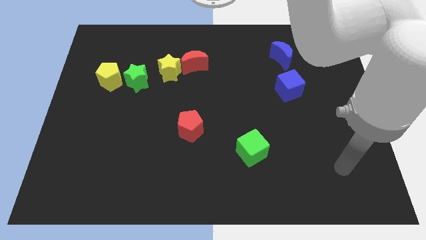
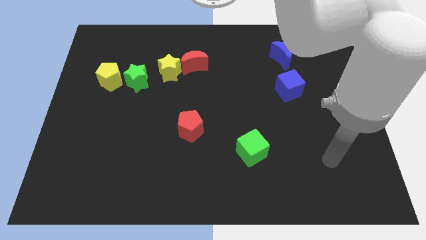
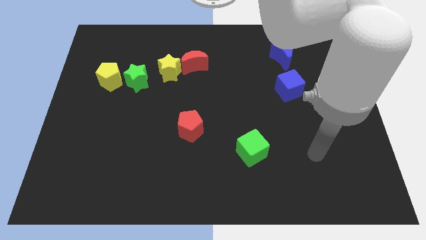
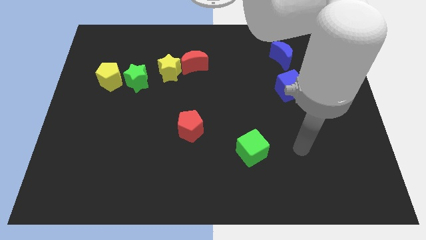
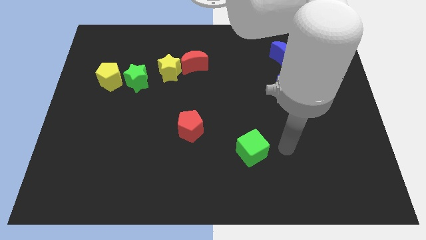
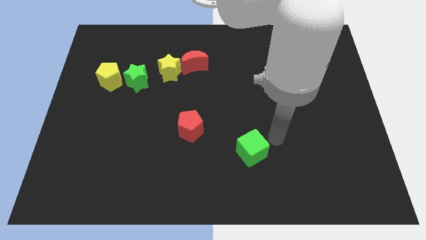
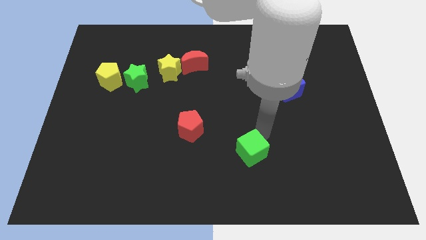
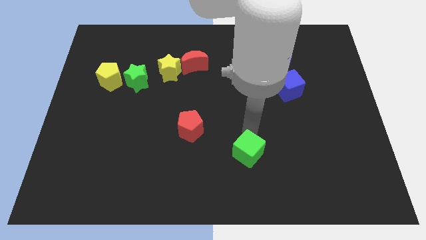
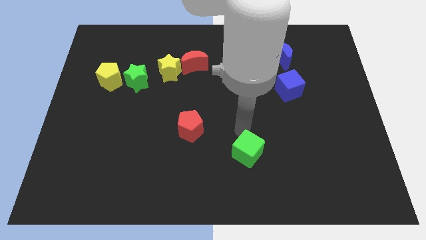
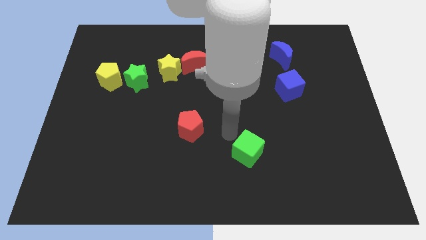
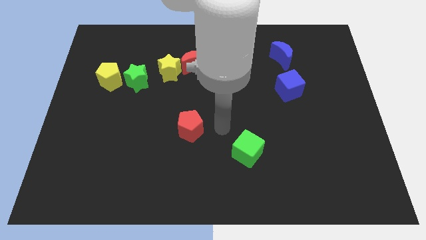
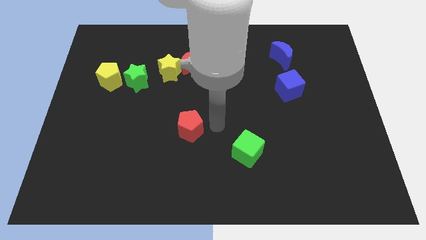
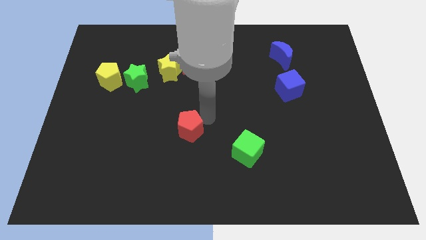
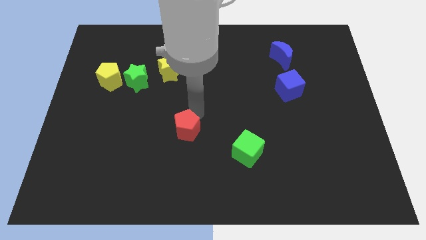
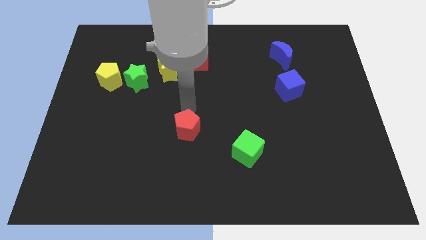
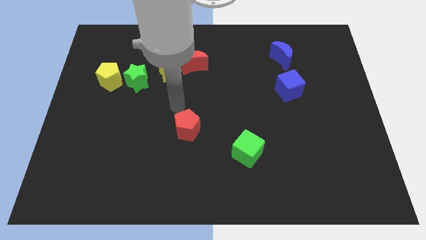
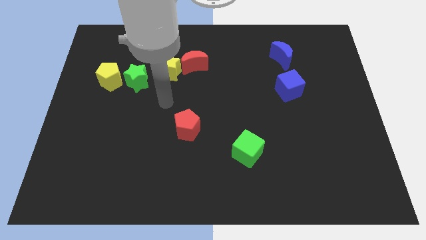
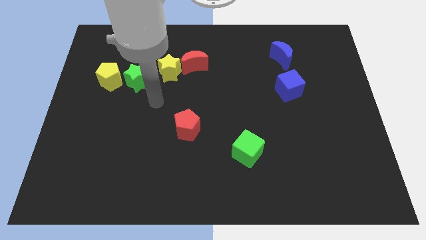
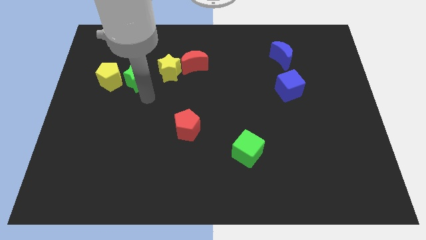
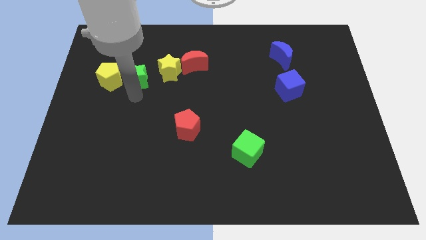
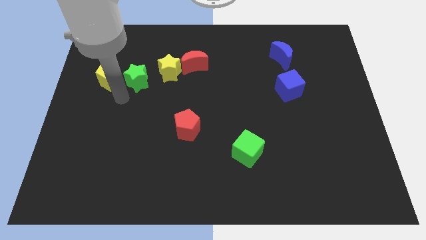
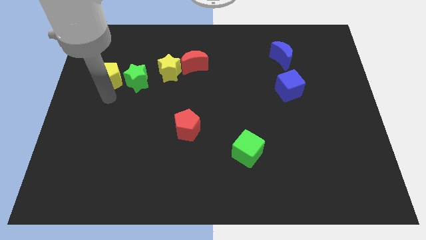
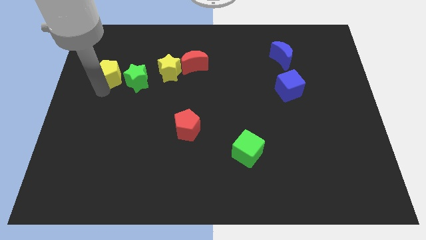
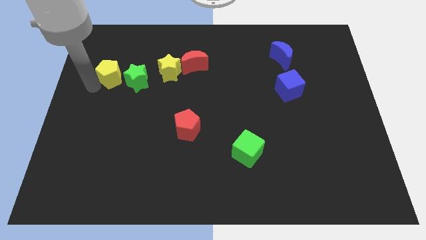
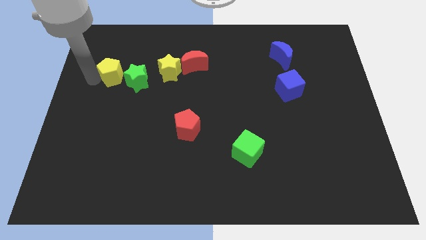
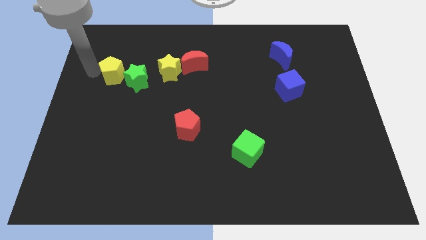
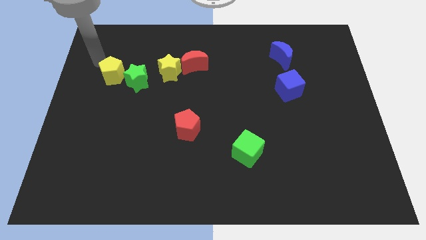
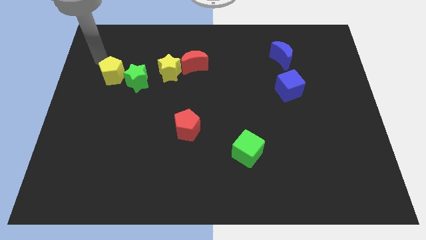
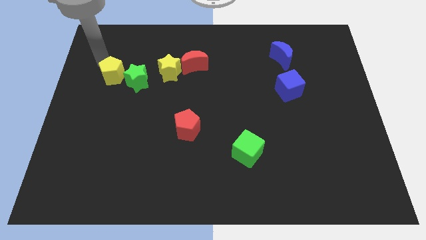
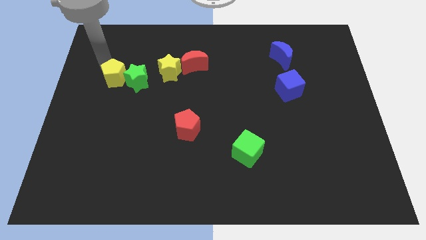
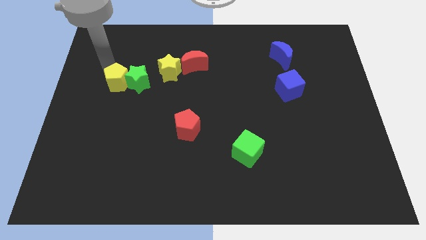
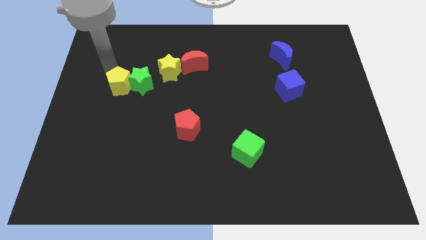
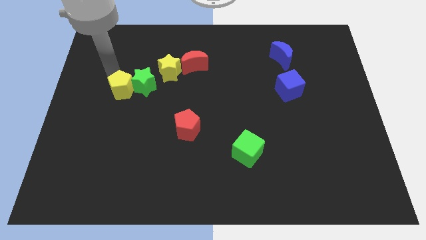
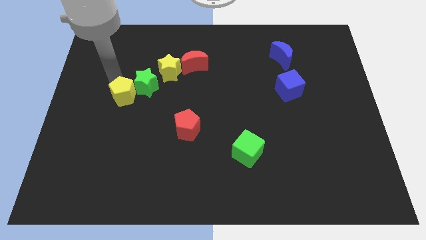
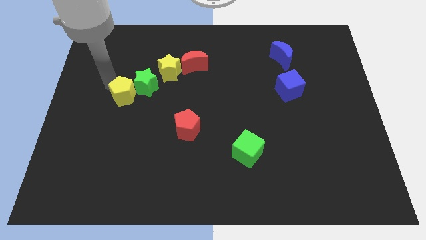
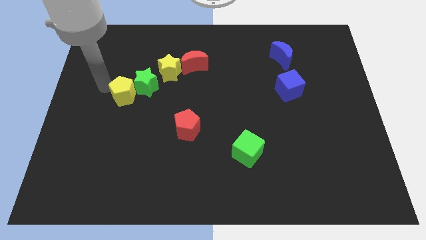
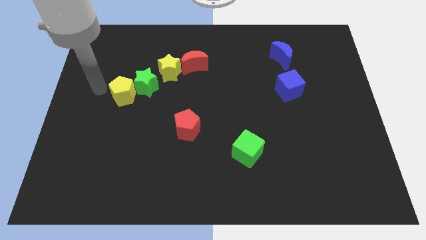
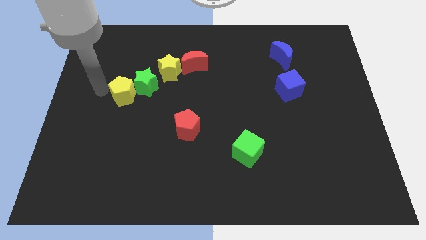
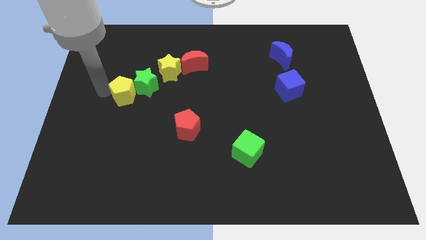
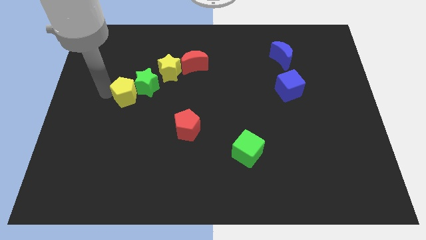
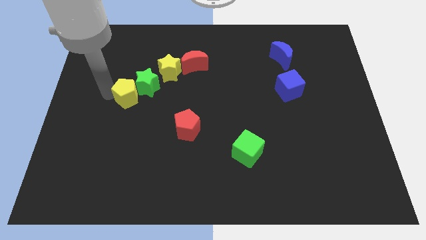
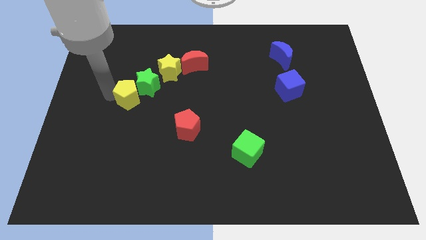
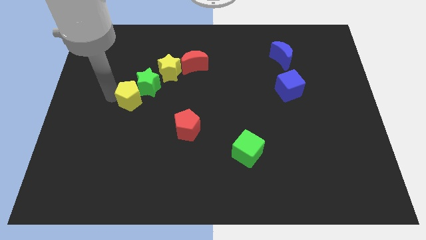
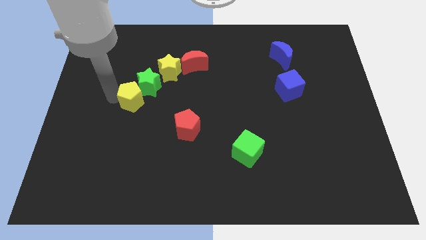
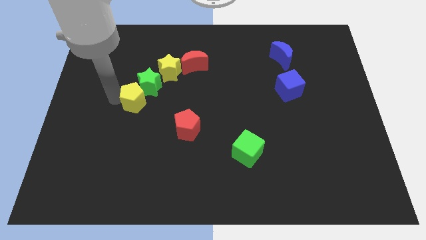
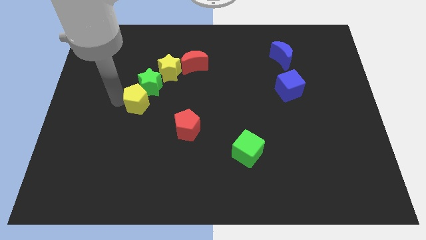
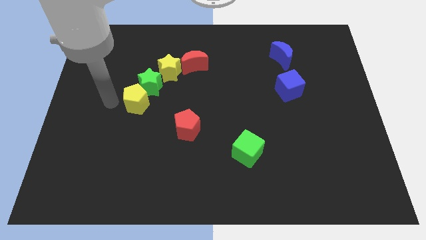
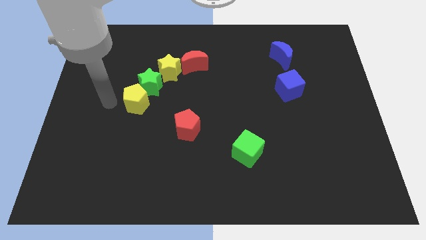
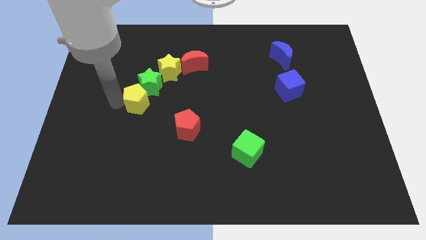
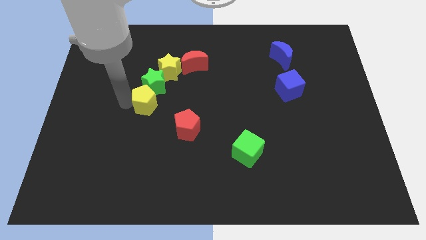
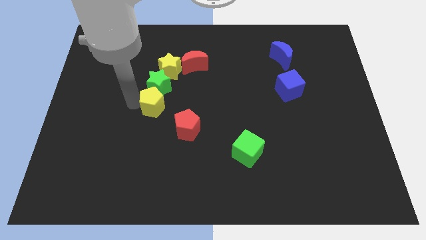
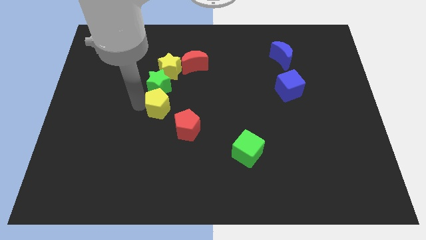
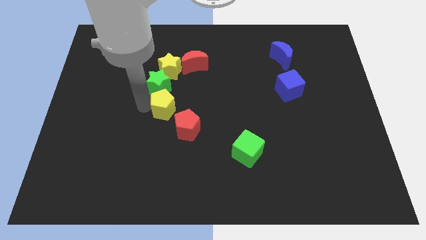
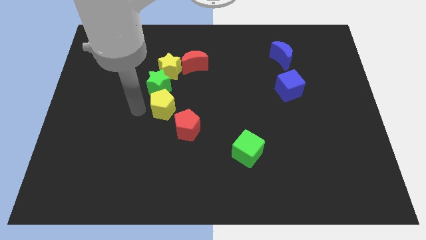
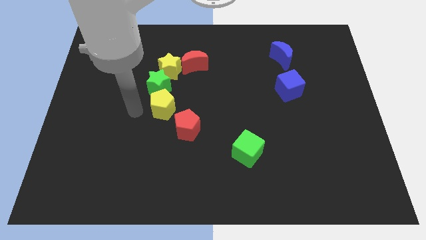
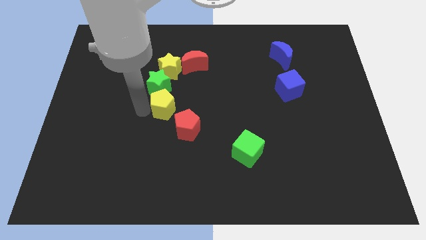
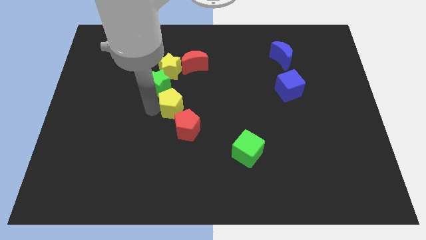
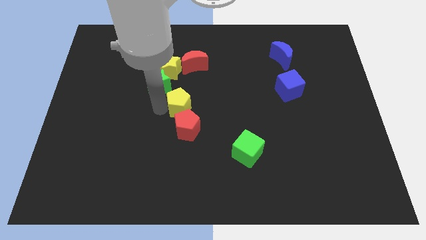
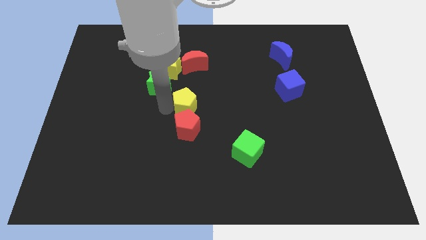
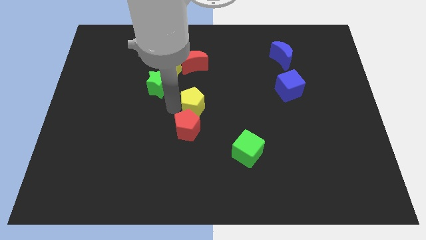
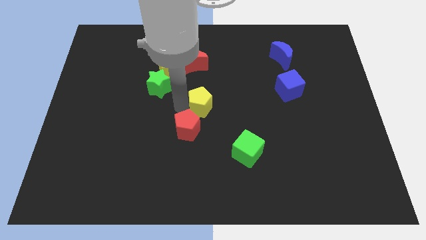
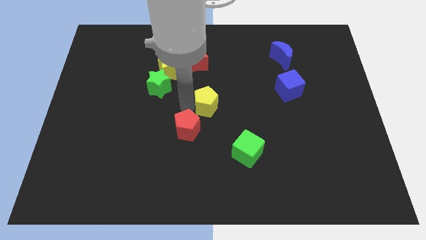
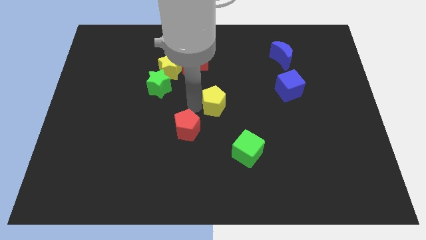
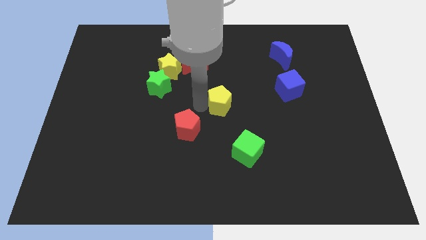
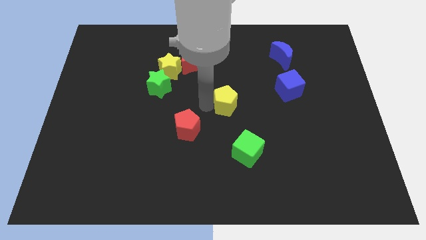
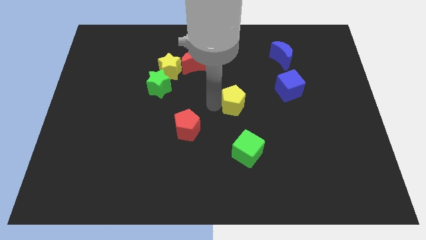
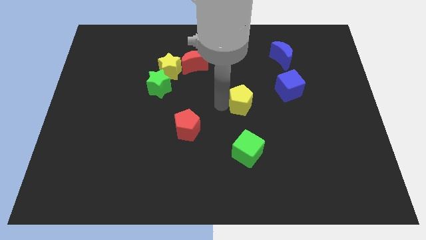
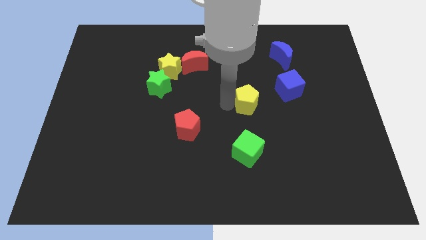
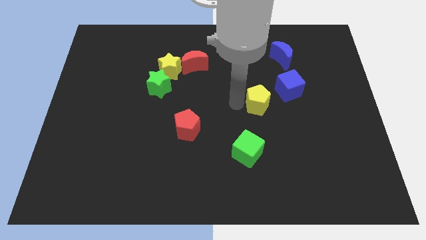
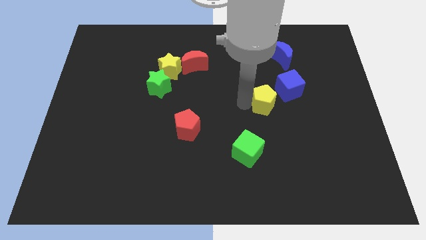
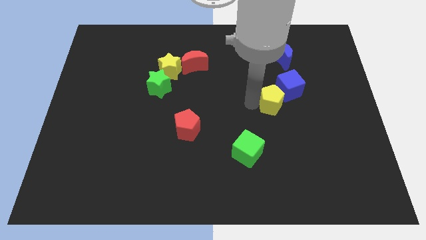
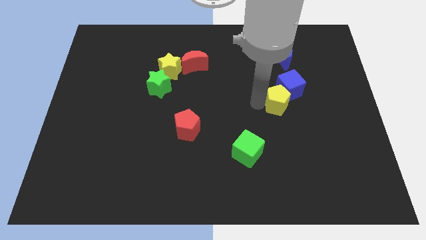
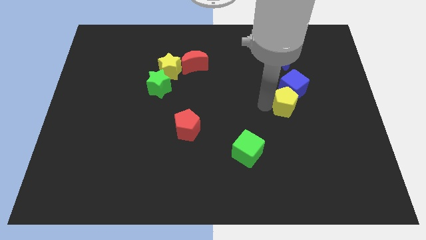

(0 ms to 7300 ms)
put the yellow pentagon to the bottom of the blue moon
